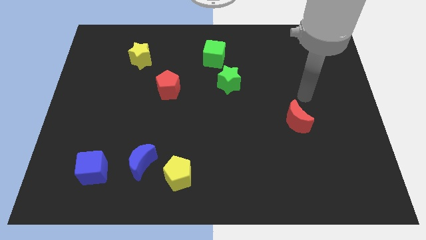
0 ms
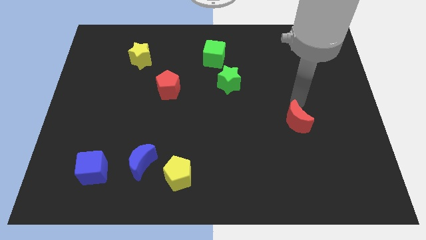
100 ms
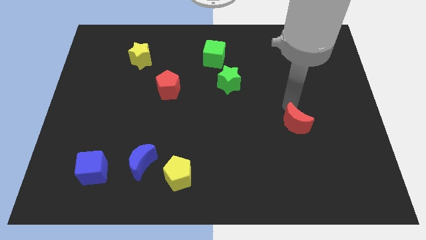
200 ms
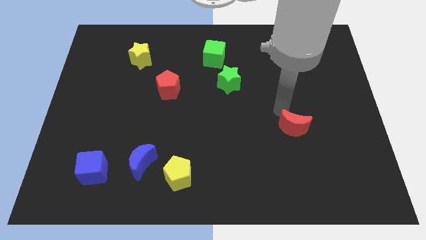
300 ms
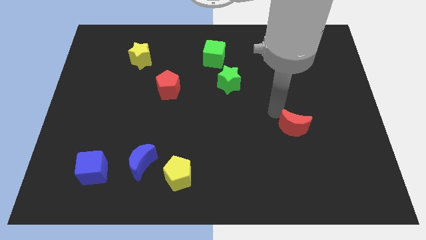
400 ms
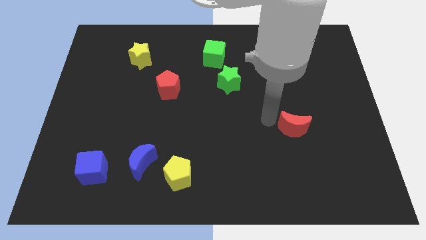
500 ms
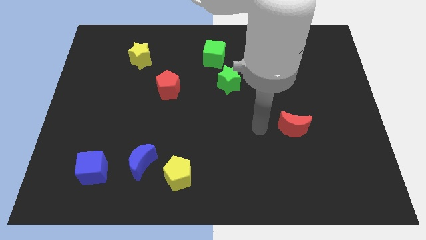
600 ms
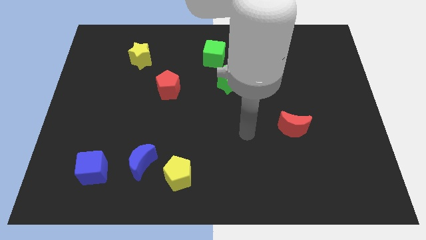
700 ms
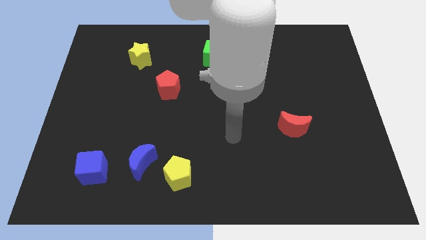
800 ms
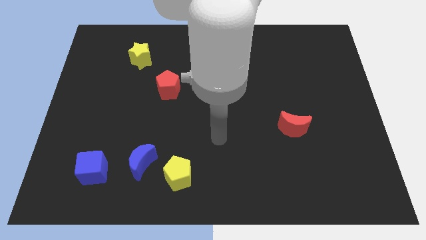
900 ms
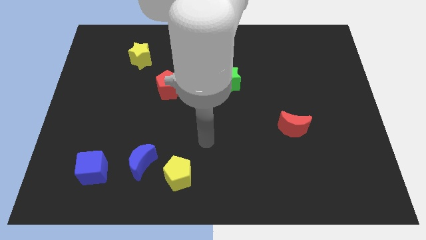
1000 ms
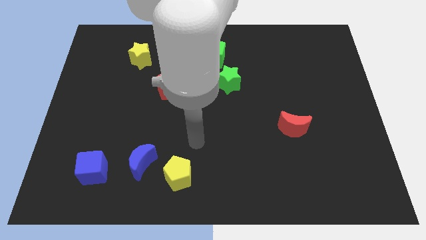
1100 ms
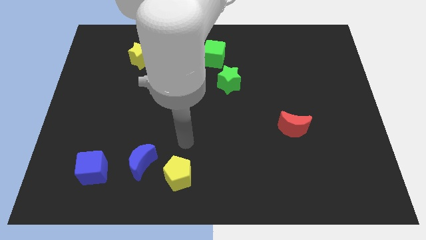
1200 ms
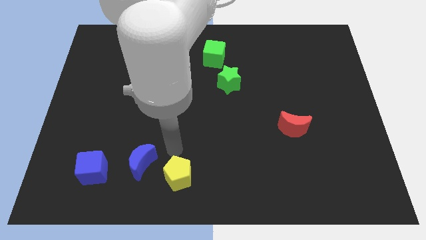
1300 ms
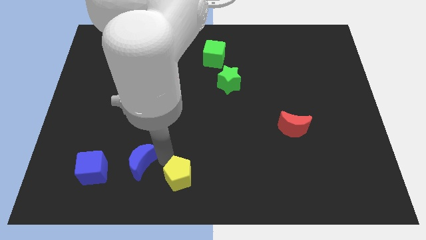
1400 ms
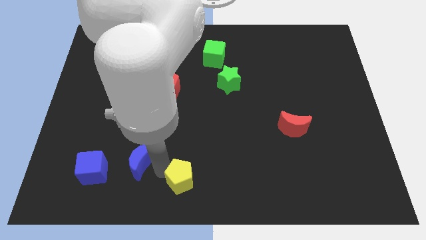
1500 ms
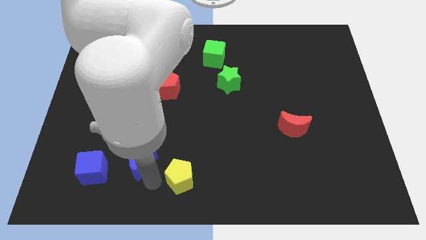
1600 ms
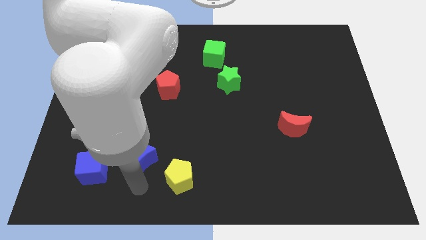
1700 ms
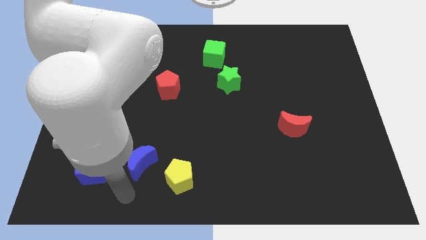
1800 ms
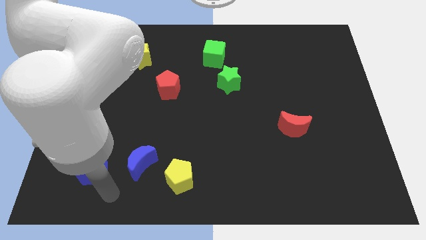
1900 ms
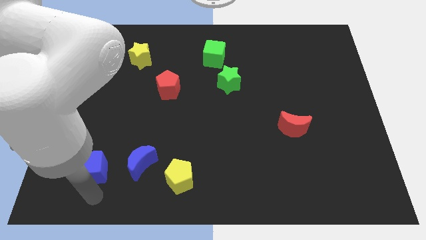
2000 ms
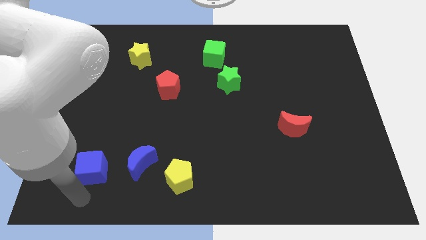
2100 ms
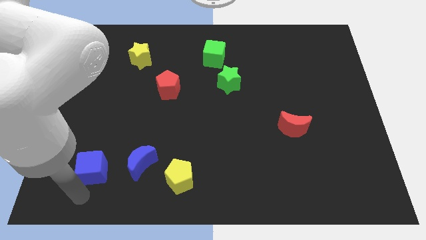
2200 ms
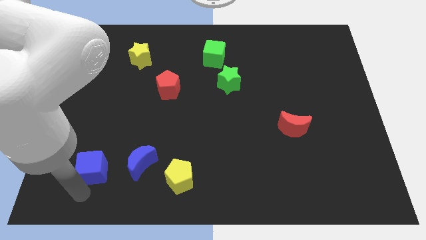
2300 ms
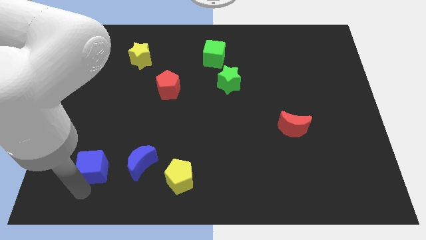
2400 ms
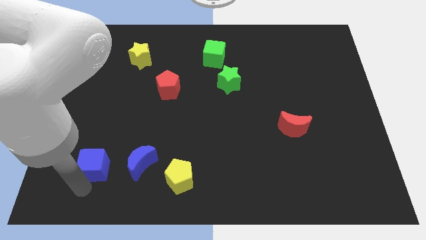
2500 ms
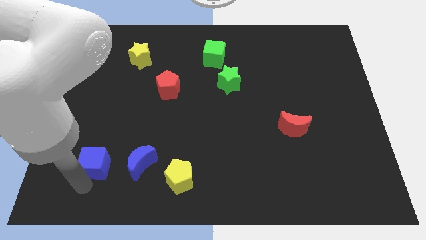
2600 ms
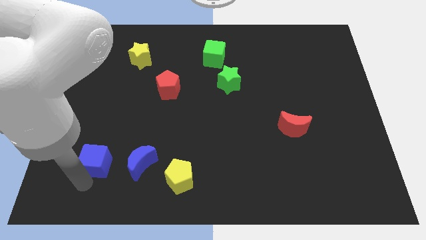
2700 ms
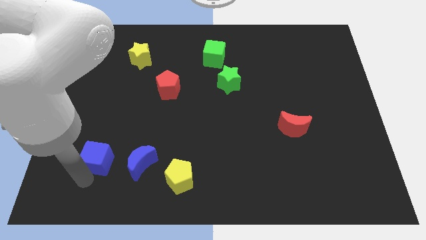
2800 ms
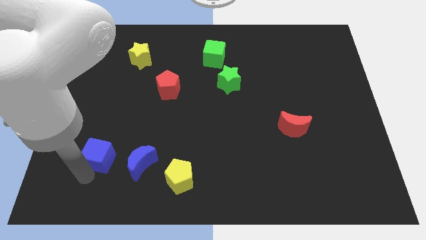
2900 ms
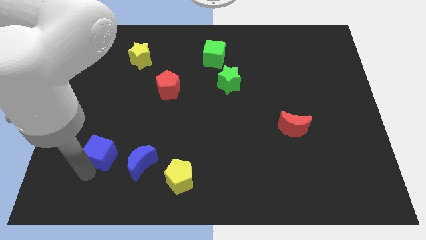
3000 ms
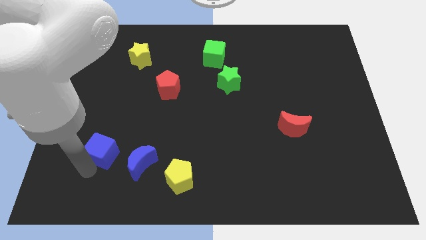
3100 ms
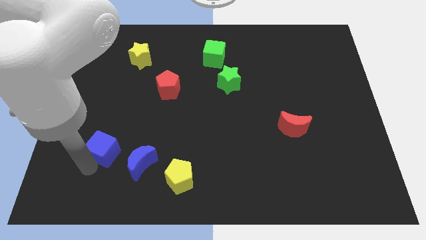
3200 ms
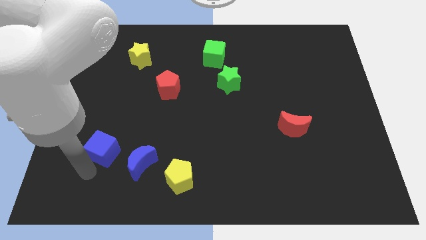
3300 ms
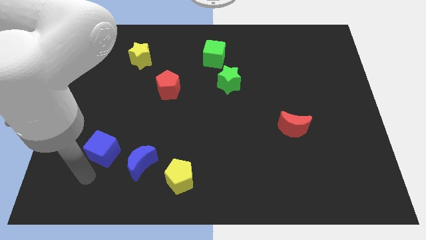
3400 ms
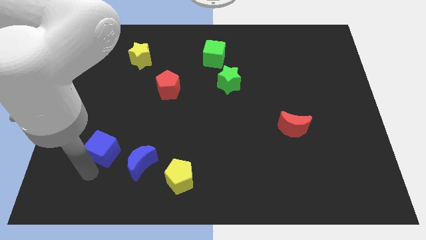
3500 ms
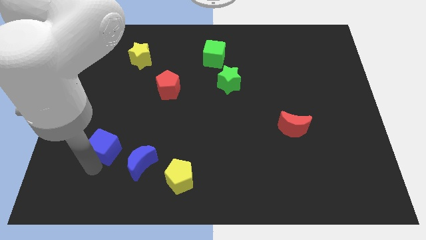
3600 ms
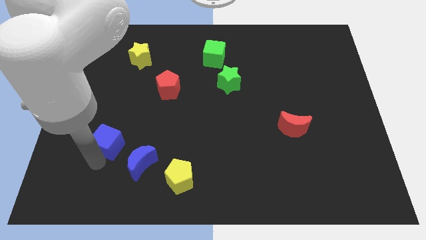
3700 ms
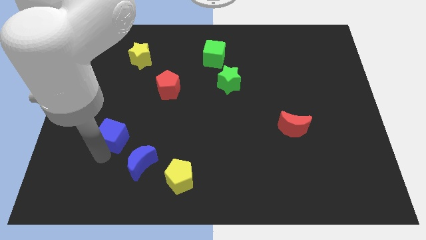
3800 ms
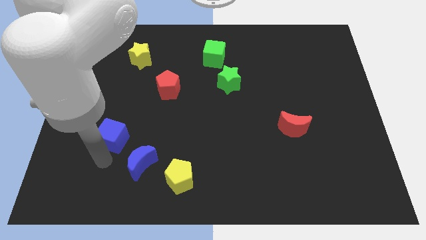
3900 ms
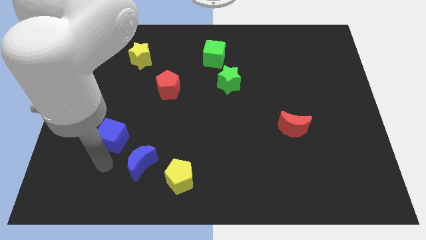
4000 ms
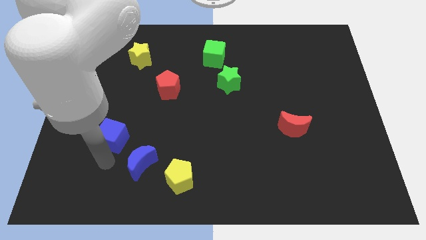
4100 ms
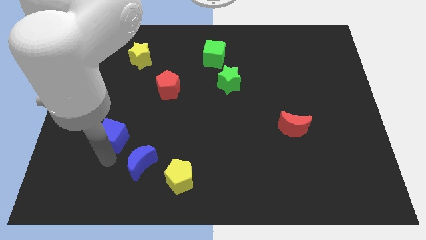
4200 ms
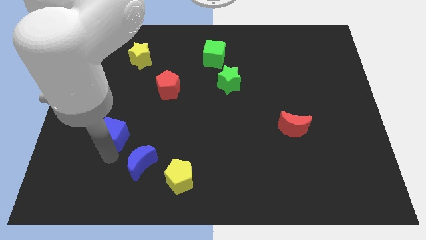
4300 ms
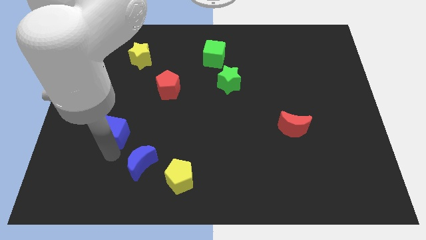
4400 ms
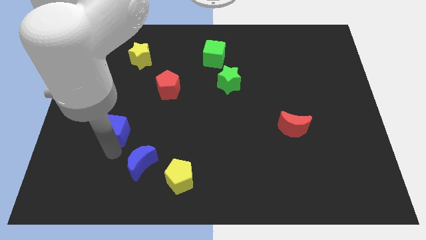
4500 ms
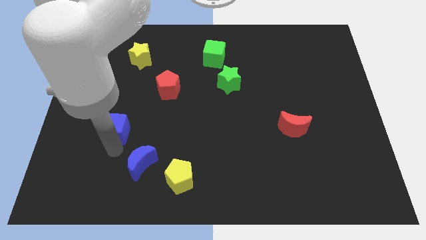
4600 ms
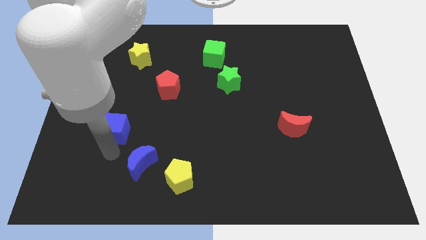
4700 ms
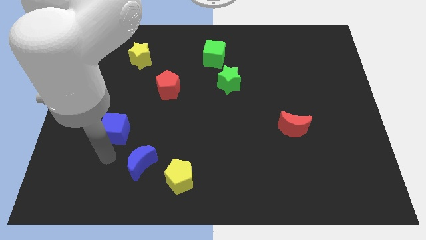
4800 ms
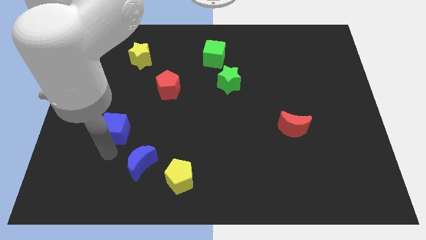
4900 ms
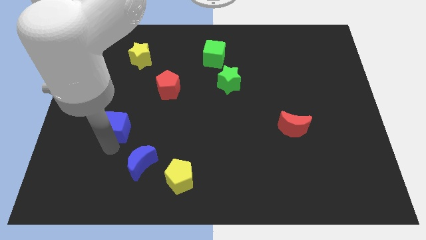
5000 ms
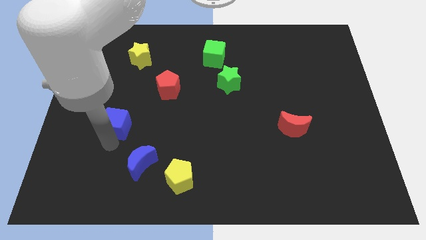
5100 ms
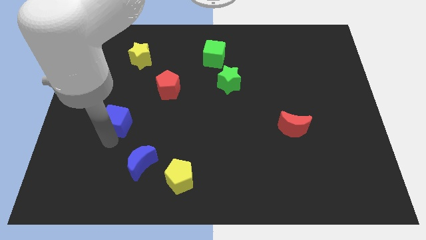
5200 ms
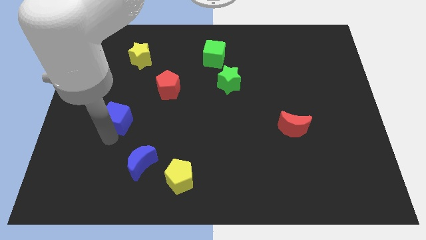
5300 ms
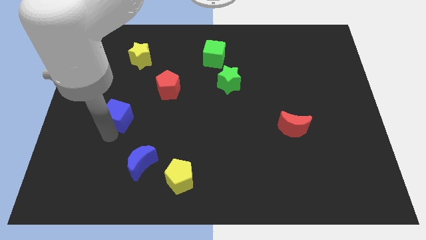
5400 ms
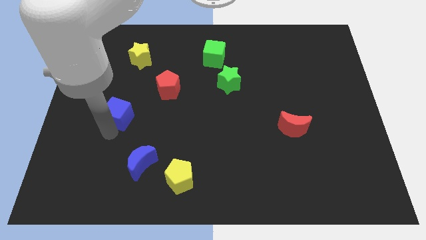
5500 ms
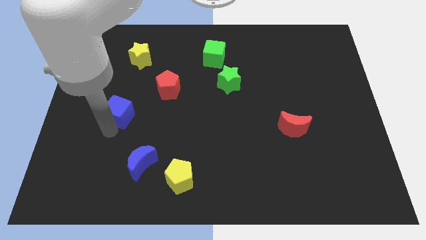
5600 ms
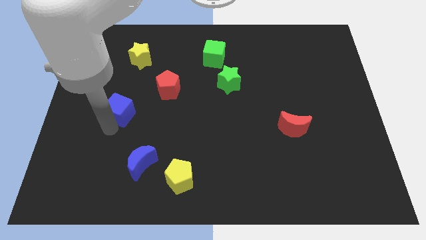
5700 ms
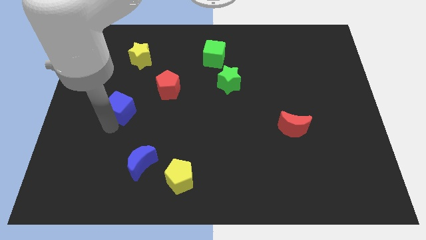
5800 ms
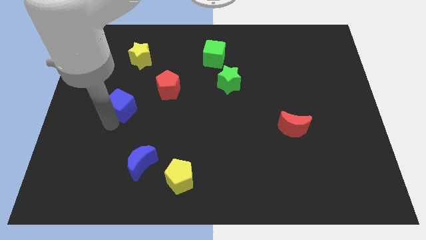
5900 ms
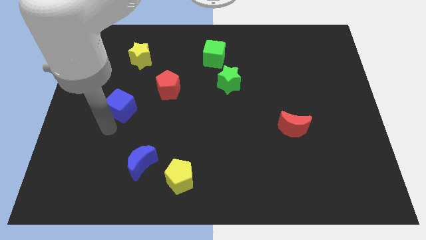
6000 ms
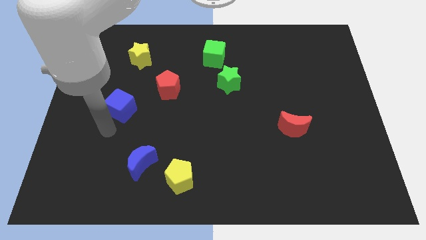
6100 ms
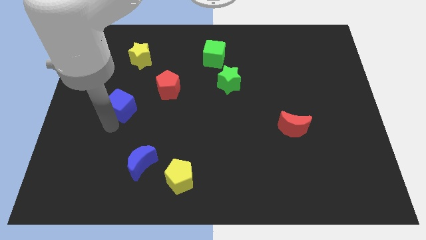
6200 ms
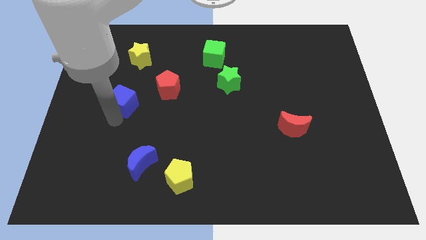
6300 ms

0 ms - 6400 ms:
put the blue cube to the bottom side of the yellow star

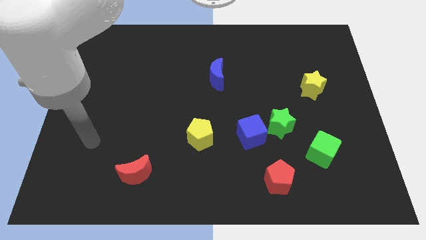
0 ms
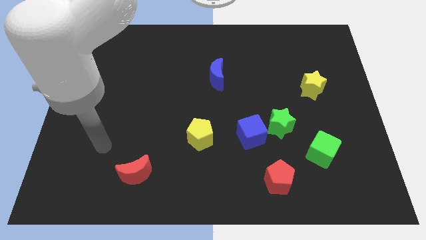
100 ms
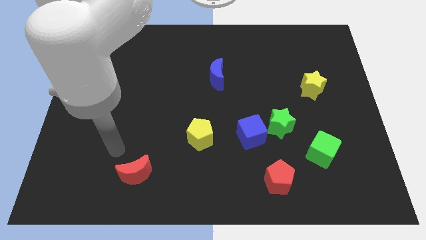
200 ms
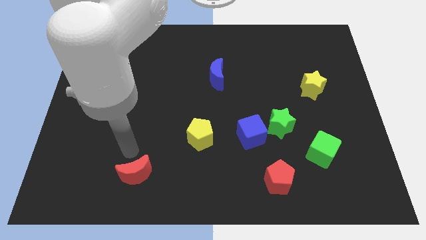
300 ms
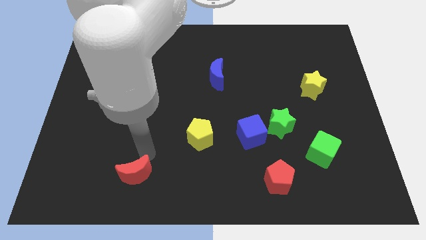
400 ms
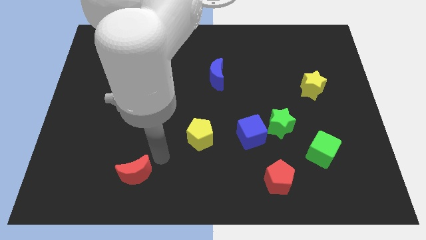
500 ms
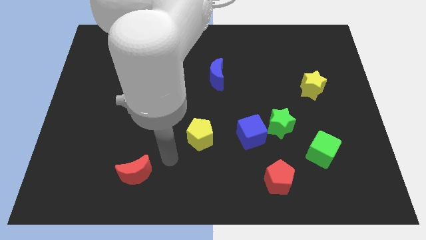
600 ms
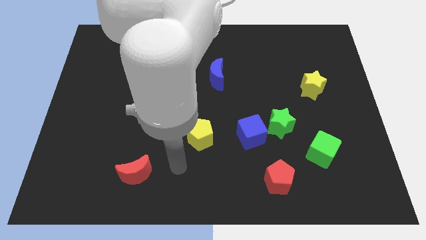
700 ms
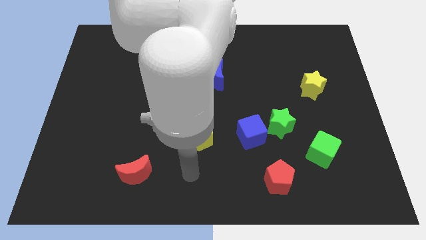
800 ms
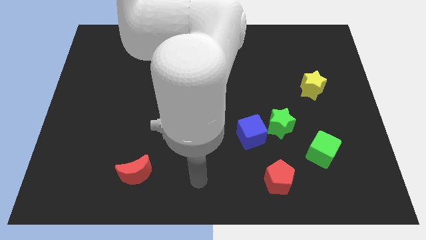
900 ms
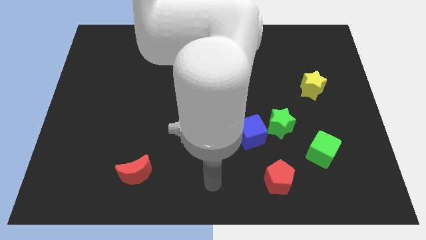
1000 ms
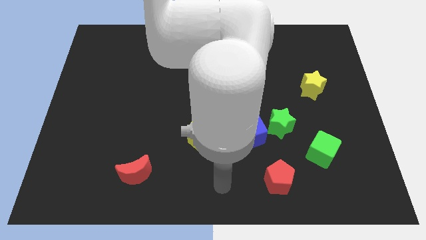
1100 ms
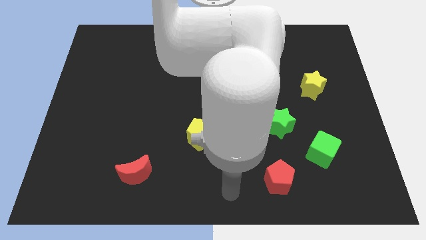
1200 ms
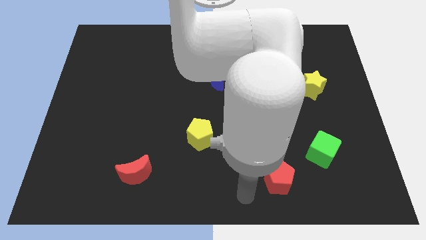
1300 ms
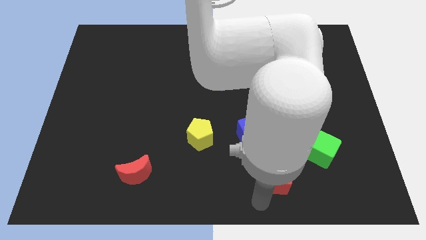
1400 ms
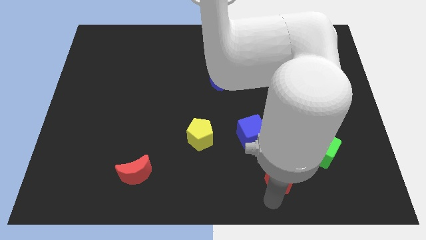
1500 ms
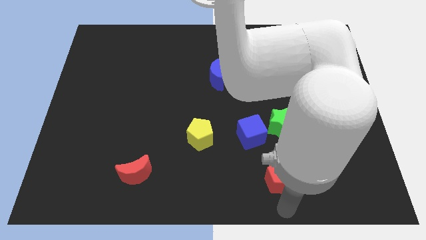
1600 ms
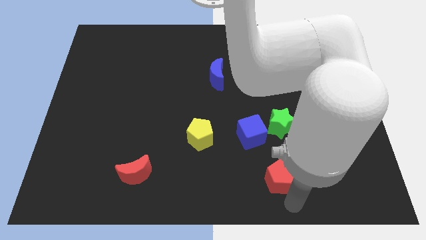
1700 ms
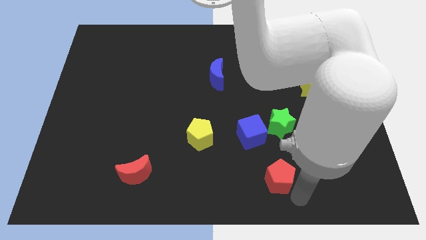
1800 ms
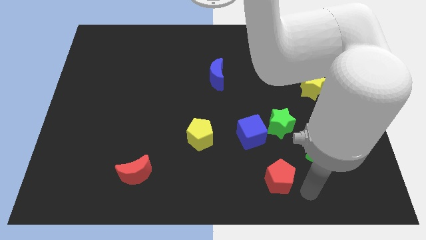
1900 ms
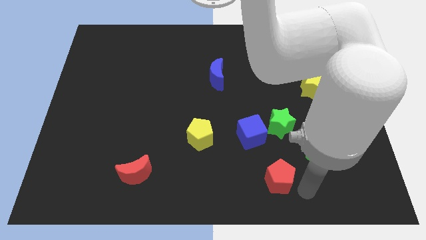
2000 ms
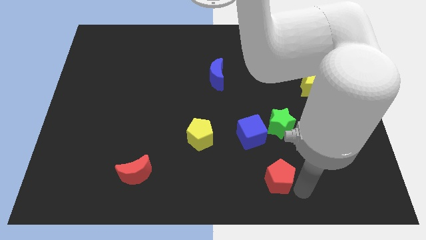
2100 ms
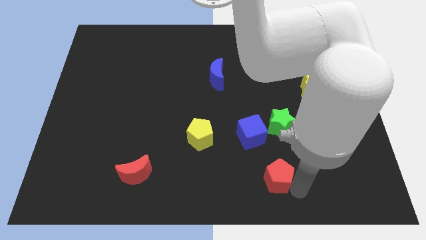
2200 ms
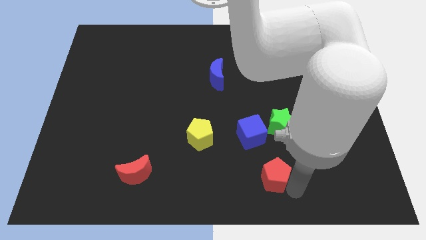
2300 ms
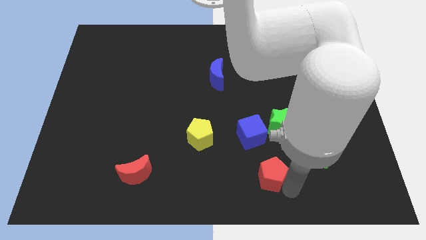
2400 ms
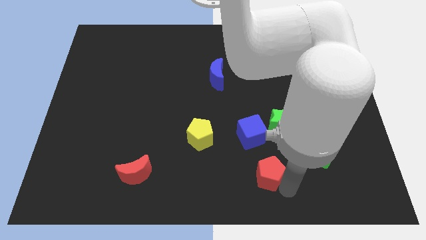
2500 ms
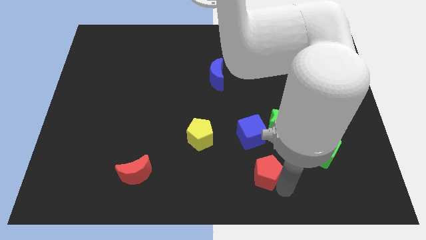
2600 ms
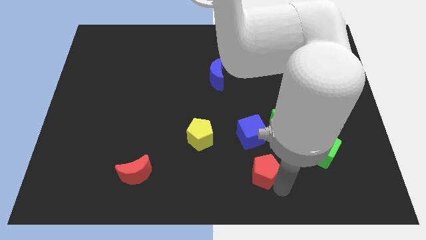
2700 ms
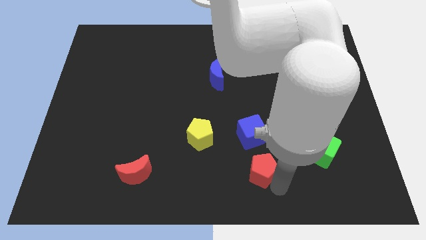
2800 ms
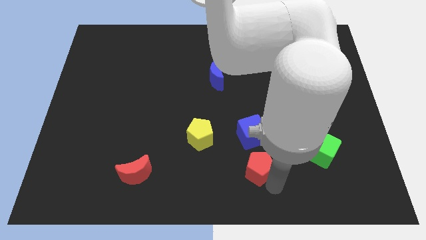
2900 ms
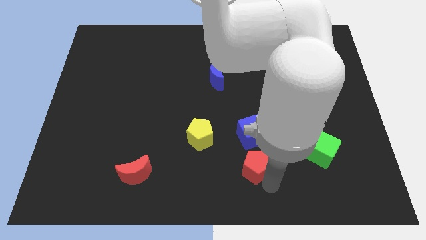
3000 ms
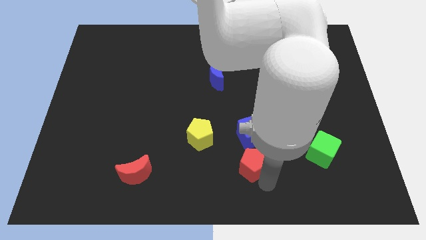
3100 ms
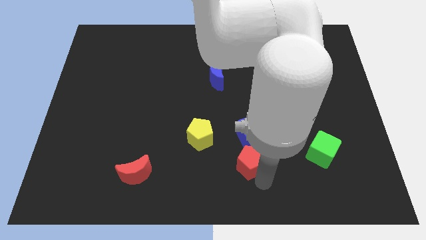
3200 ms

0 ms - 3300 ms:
put the red pentagon to the bottom left of the blue cube
